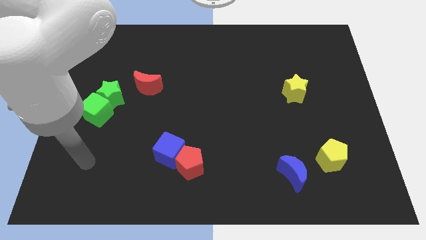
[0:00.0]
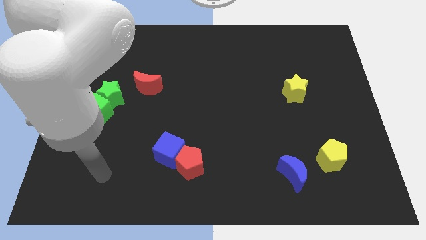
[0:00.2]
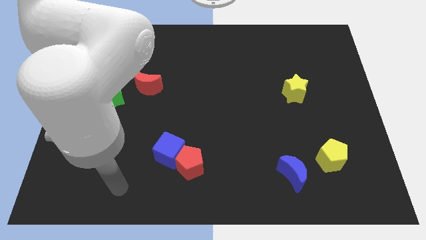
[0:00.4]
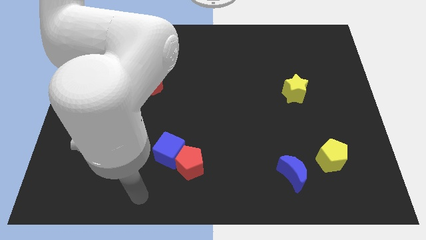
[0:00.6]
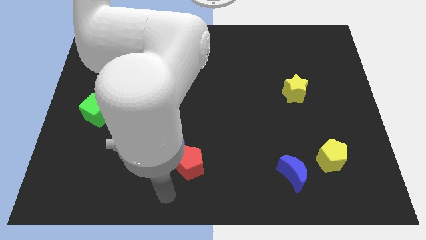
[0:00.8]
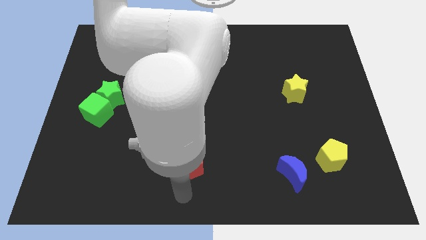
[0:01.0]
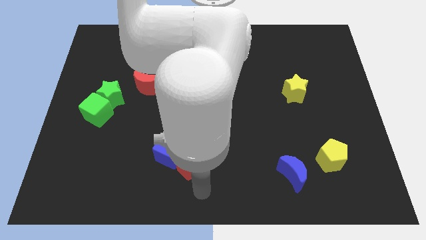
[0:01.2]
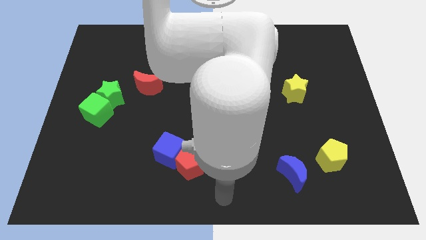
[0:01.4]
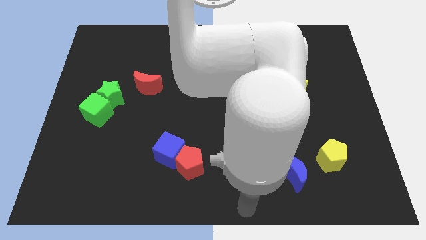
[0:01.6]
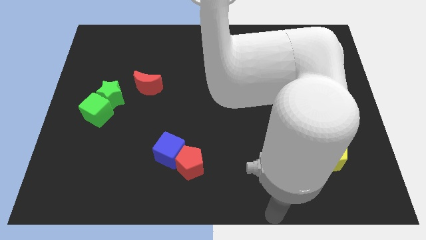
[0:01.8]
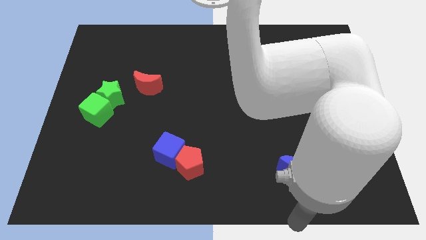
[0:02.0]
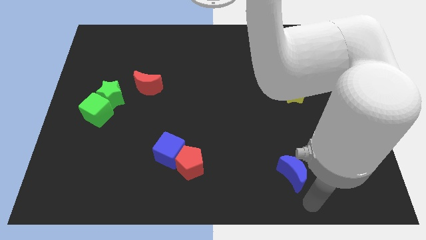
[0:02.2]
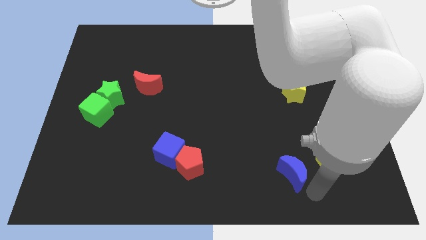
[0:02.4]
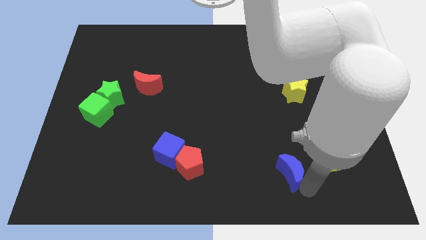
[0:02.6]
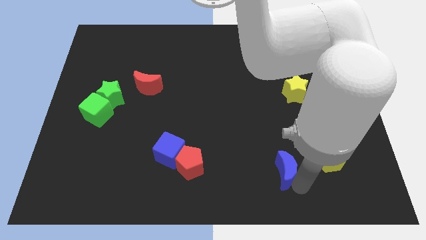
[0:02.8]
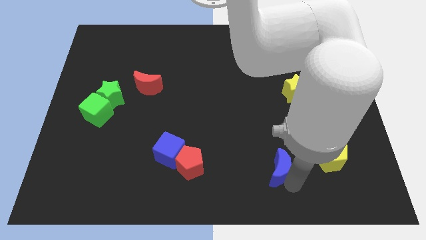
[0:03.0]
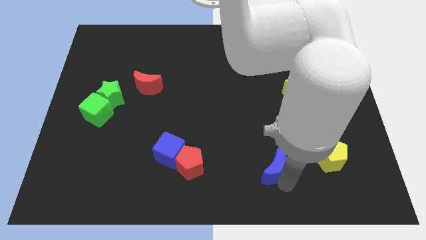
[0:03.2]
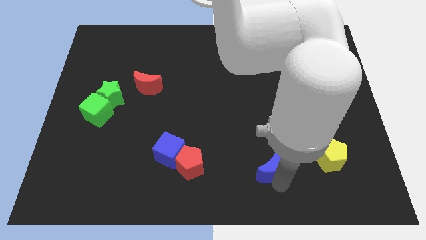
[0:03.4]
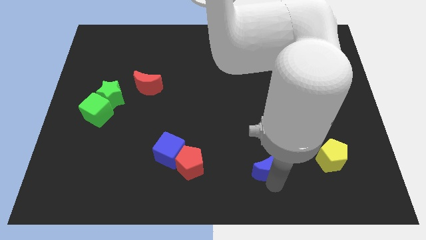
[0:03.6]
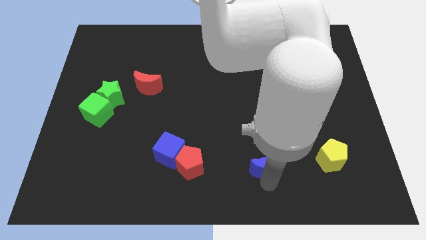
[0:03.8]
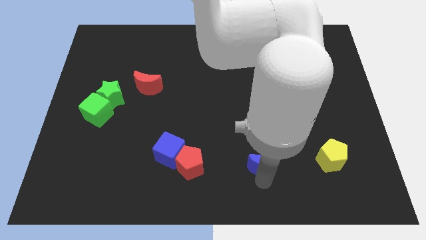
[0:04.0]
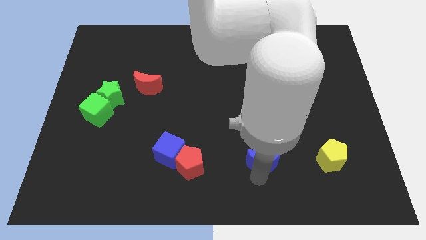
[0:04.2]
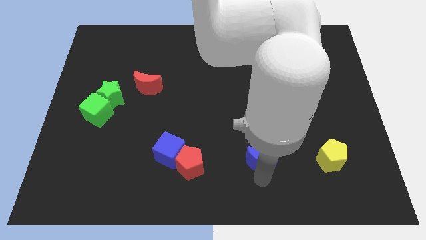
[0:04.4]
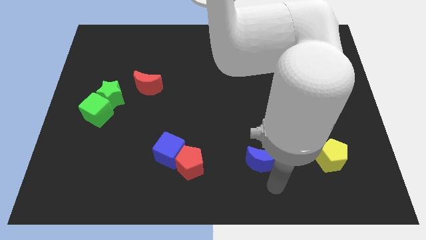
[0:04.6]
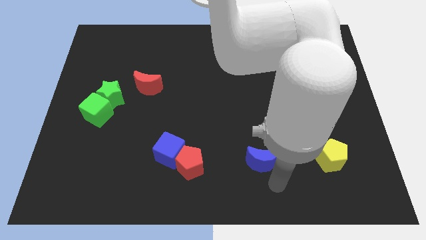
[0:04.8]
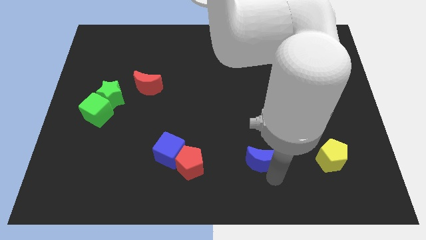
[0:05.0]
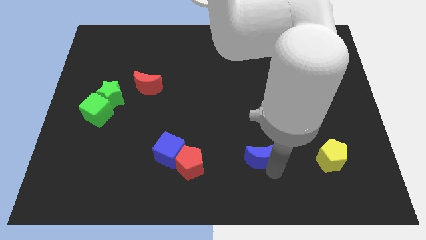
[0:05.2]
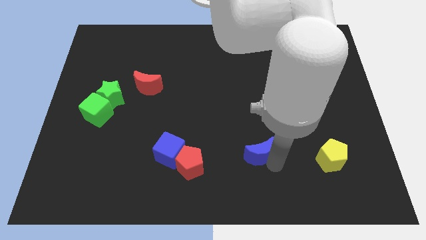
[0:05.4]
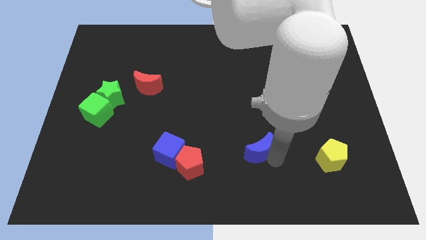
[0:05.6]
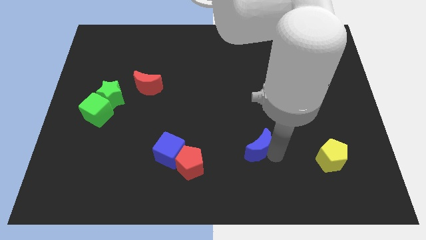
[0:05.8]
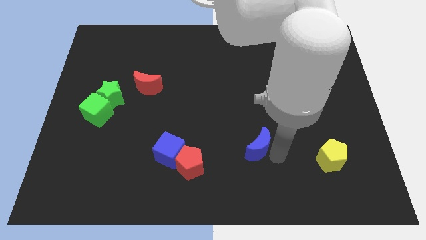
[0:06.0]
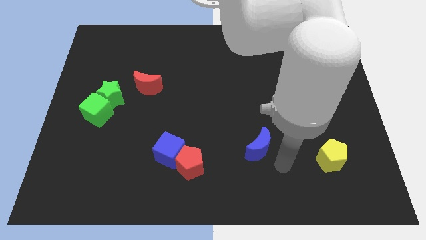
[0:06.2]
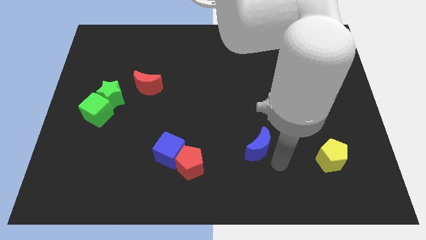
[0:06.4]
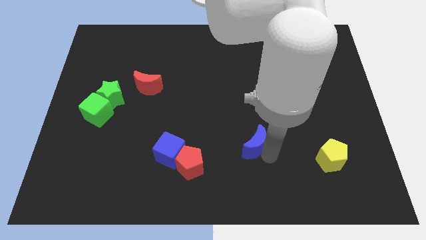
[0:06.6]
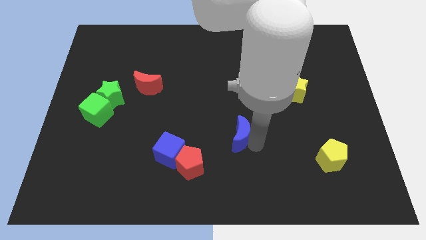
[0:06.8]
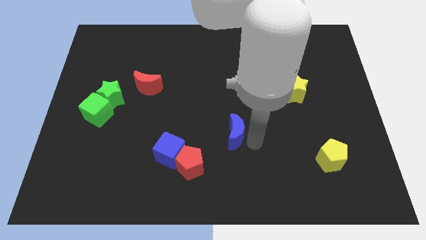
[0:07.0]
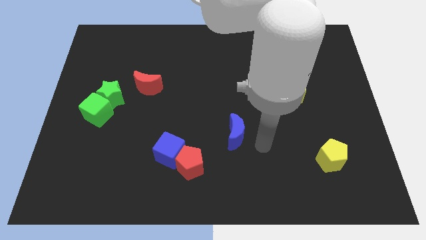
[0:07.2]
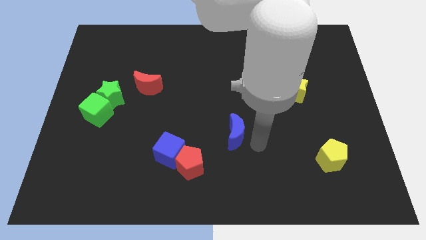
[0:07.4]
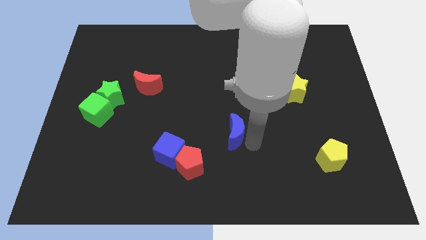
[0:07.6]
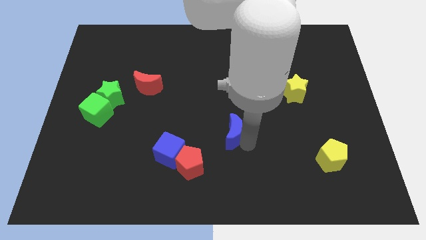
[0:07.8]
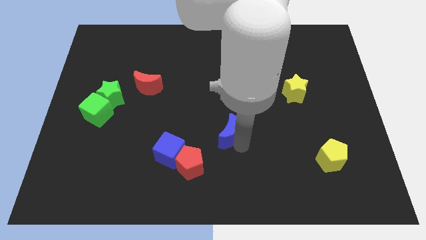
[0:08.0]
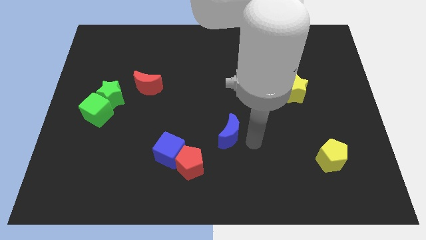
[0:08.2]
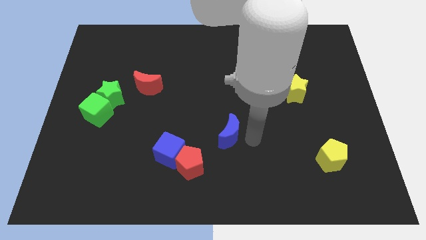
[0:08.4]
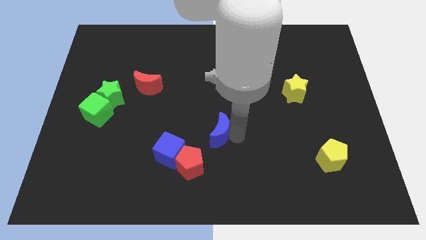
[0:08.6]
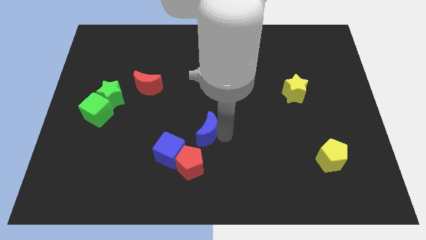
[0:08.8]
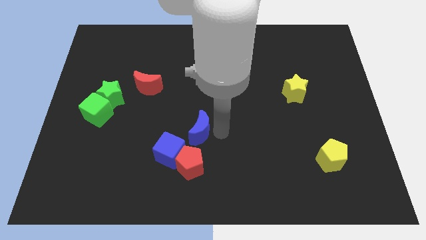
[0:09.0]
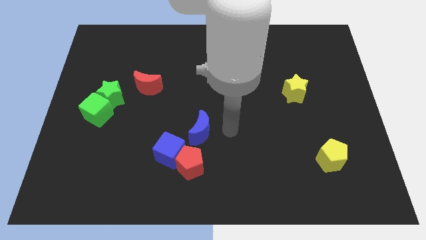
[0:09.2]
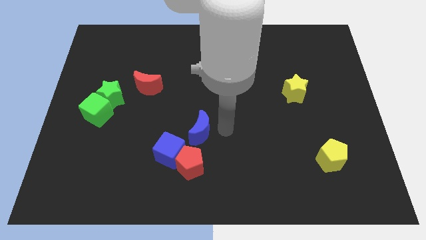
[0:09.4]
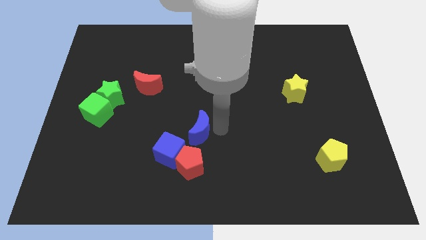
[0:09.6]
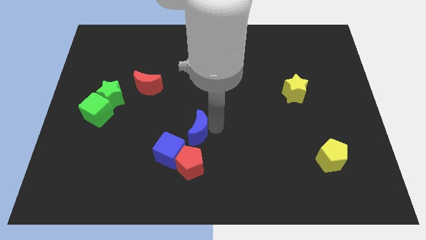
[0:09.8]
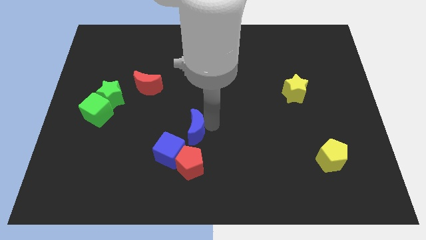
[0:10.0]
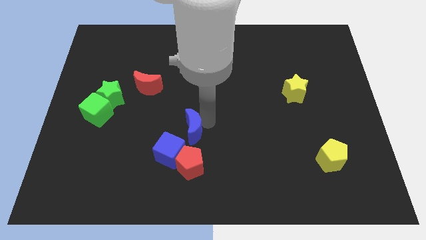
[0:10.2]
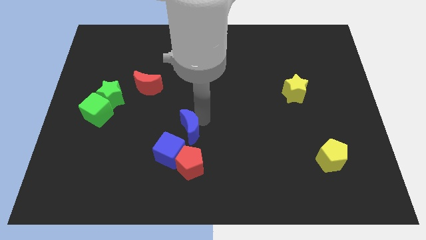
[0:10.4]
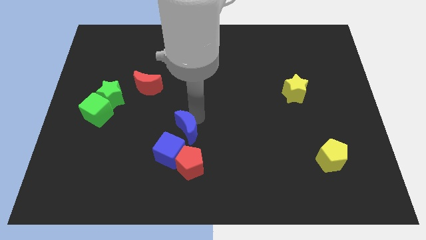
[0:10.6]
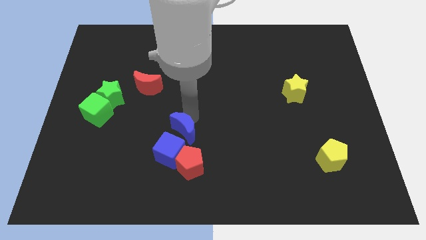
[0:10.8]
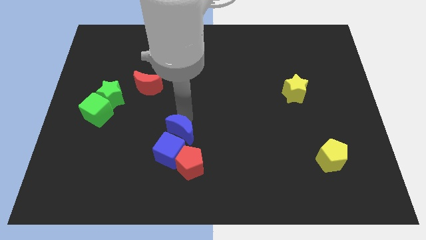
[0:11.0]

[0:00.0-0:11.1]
move the blue moon diagonally up and to the left of the red pentagon
